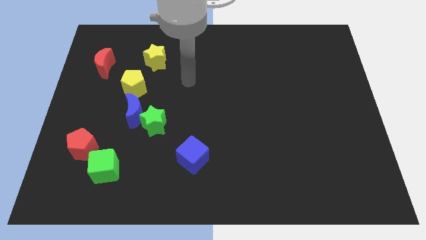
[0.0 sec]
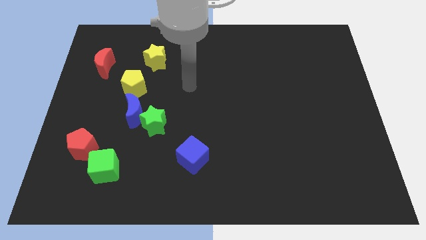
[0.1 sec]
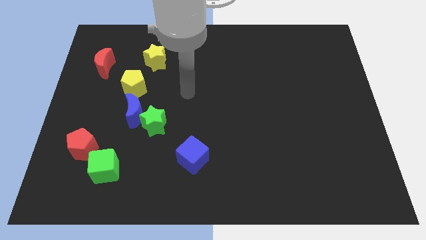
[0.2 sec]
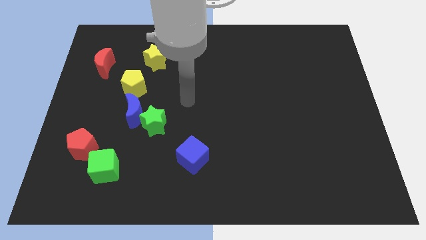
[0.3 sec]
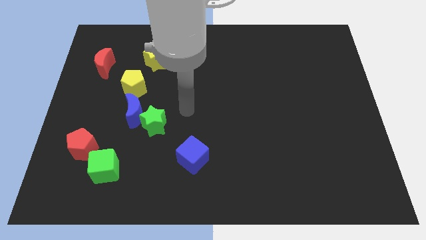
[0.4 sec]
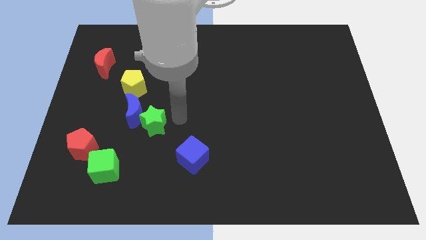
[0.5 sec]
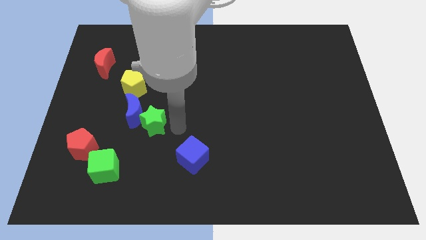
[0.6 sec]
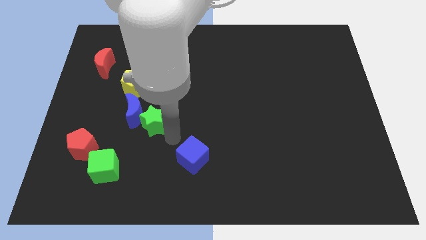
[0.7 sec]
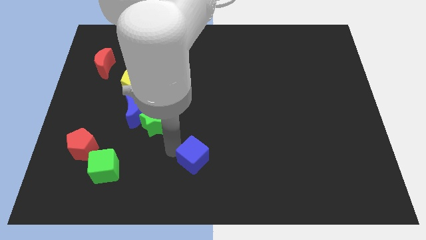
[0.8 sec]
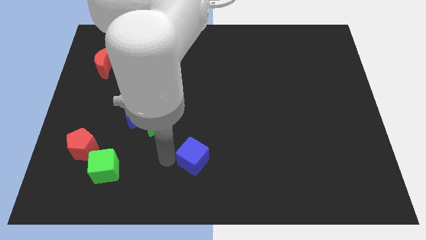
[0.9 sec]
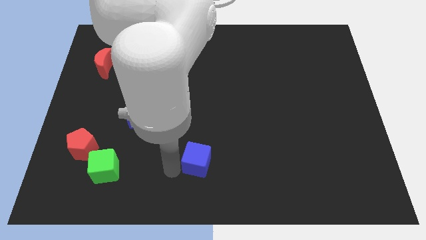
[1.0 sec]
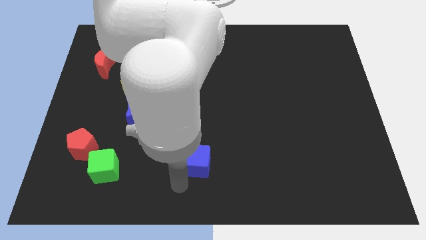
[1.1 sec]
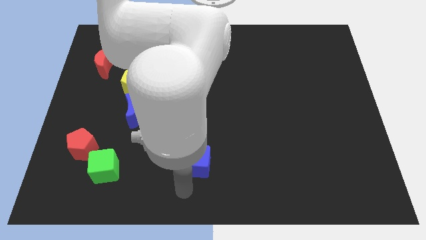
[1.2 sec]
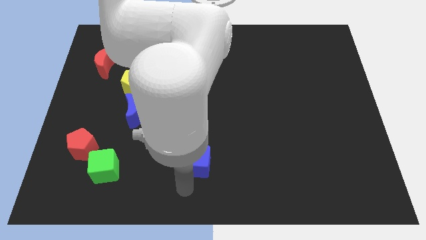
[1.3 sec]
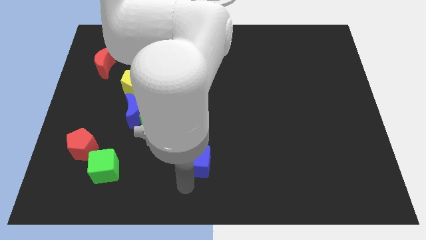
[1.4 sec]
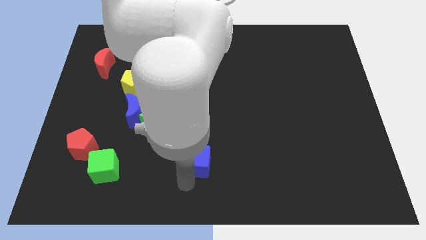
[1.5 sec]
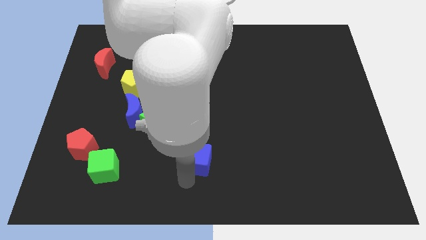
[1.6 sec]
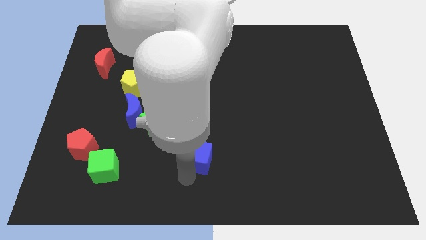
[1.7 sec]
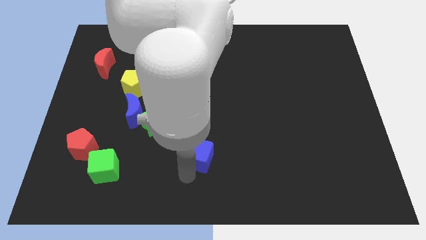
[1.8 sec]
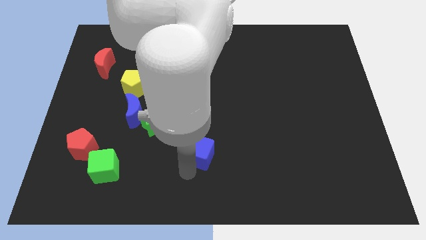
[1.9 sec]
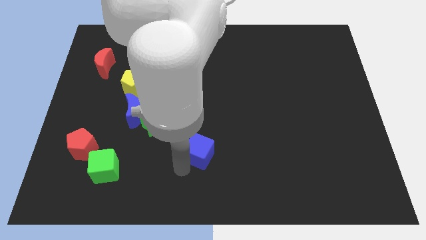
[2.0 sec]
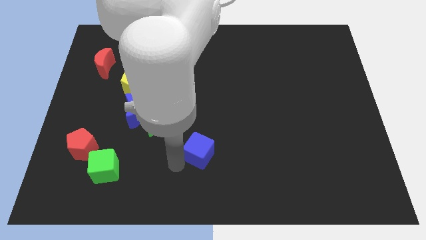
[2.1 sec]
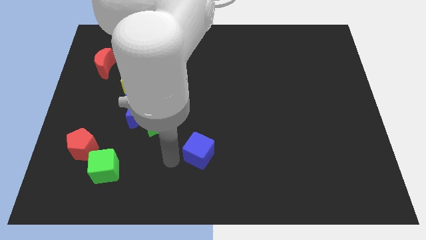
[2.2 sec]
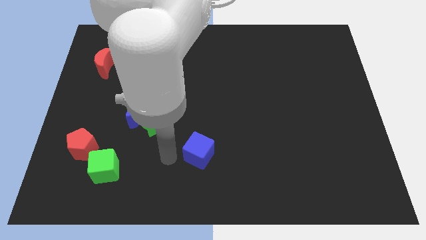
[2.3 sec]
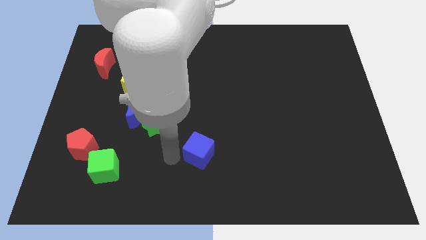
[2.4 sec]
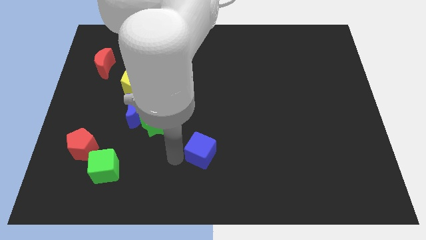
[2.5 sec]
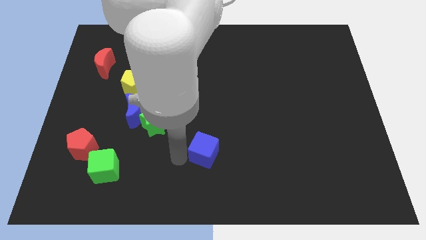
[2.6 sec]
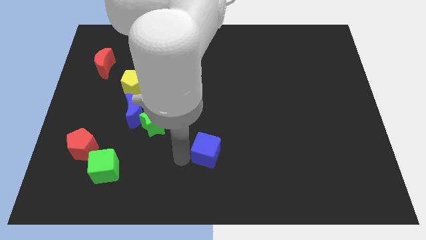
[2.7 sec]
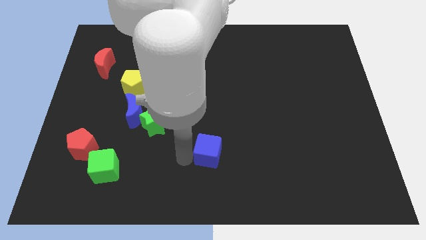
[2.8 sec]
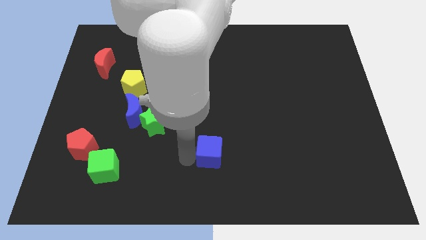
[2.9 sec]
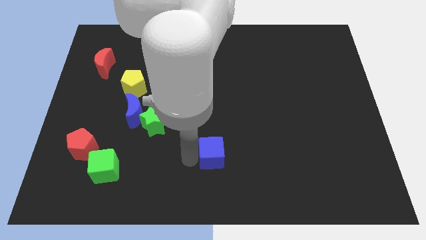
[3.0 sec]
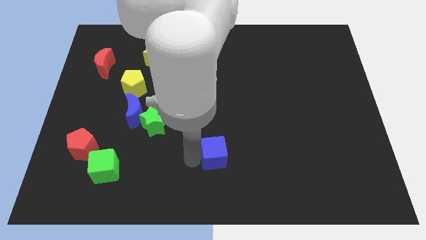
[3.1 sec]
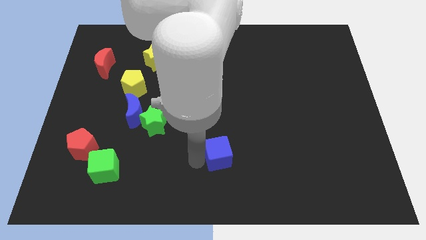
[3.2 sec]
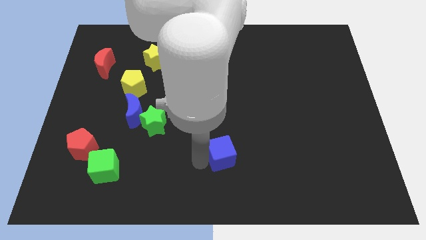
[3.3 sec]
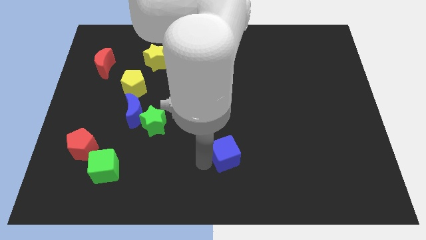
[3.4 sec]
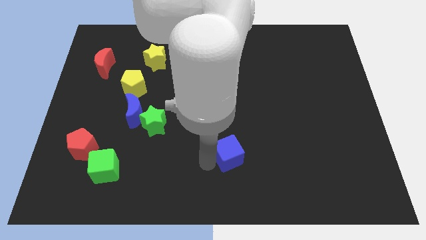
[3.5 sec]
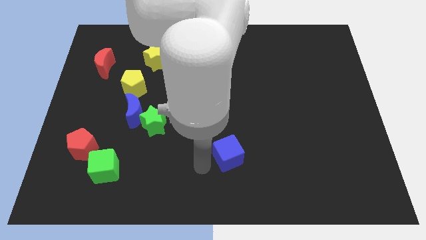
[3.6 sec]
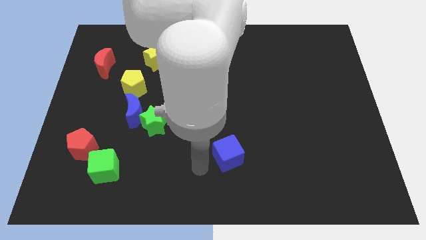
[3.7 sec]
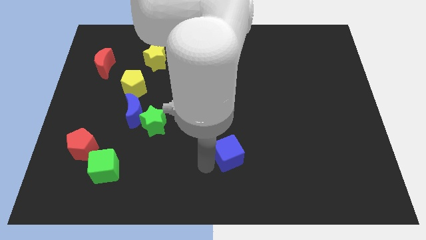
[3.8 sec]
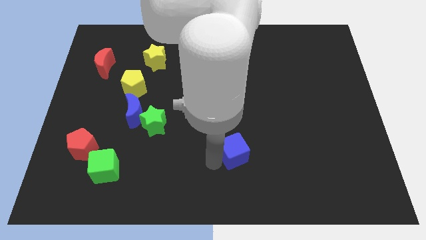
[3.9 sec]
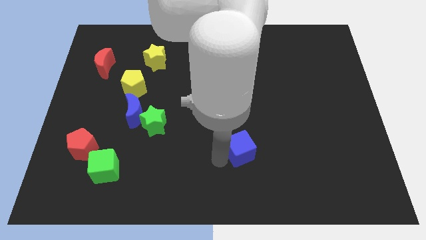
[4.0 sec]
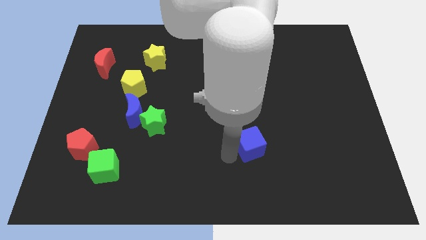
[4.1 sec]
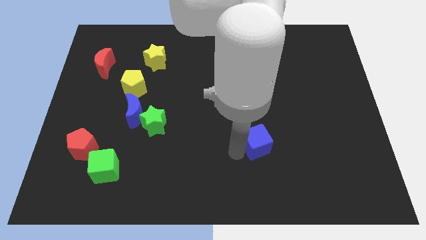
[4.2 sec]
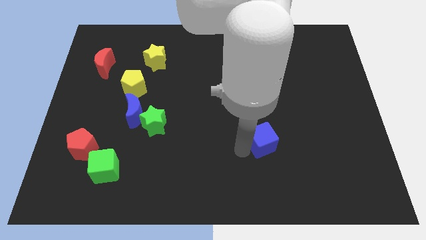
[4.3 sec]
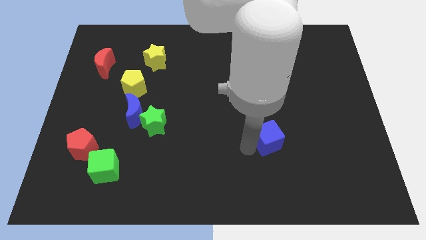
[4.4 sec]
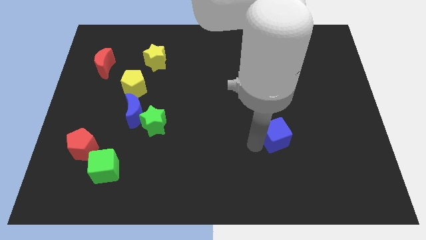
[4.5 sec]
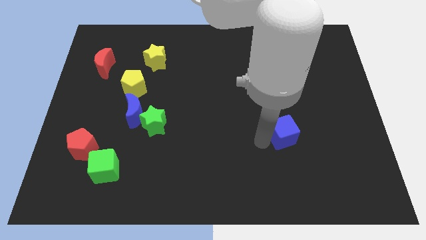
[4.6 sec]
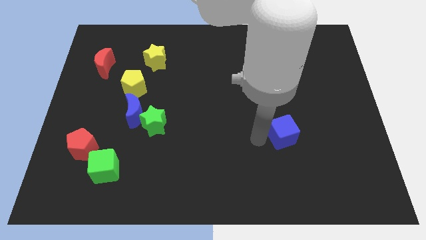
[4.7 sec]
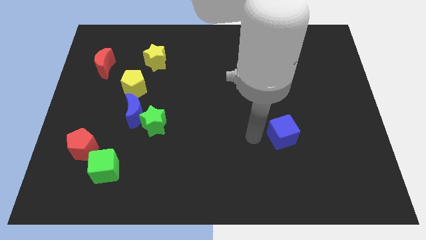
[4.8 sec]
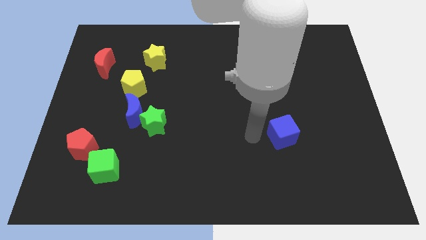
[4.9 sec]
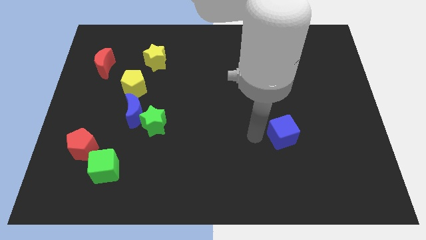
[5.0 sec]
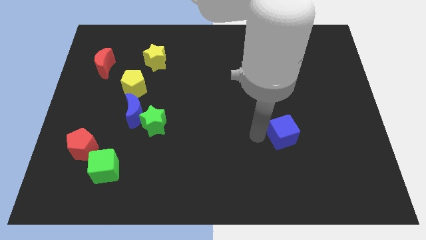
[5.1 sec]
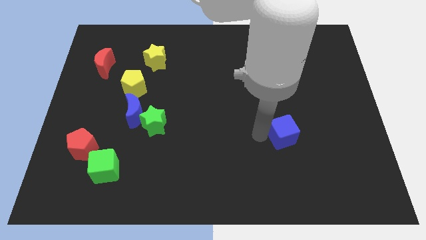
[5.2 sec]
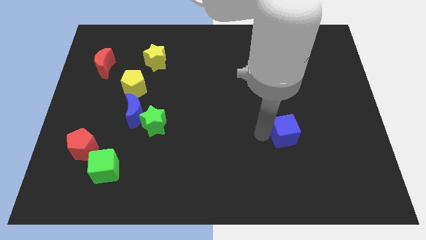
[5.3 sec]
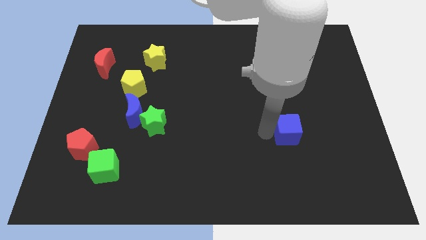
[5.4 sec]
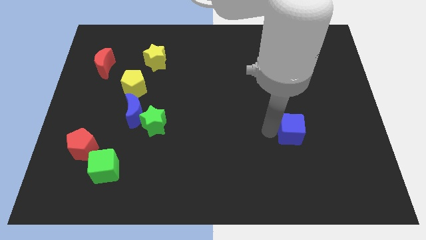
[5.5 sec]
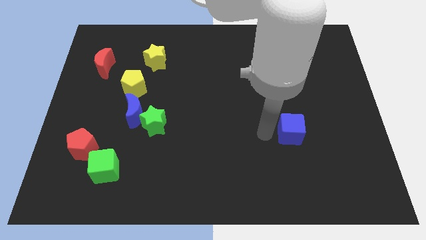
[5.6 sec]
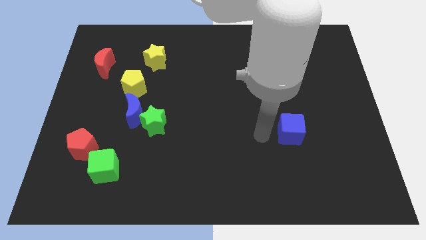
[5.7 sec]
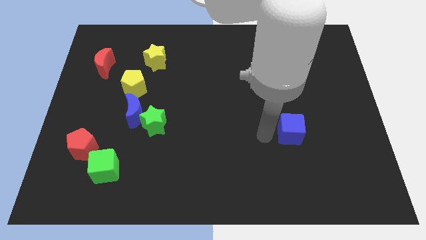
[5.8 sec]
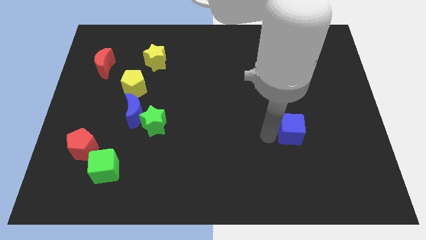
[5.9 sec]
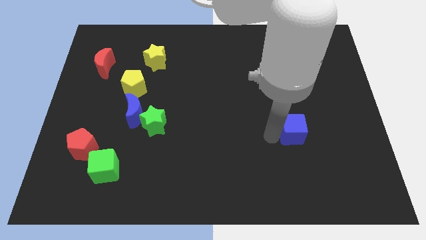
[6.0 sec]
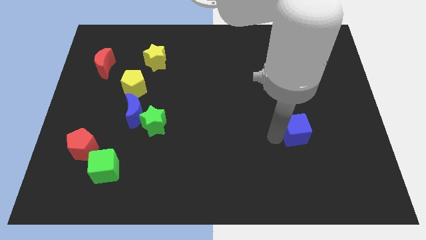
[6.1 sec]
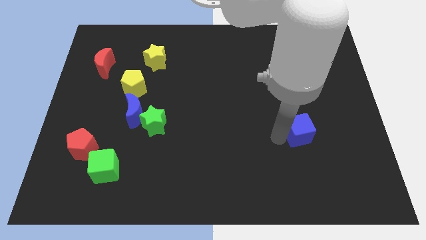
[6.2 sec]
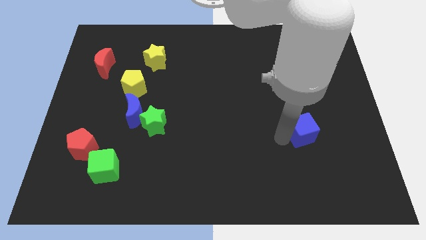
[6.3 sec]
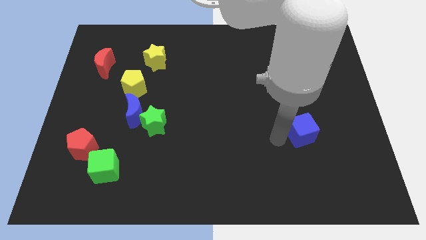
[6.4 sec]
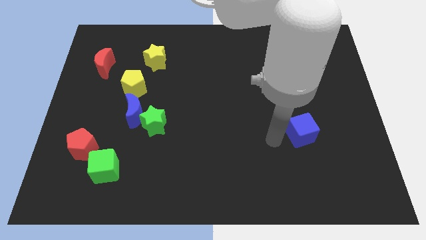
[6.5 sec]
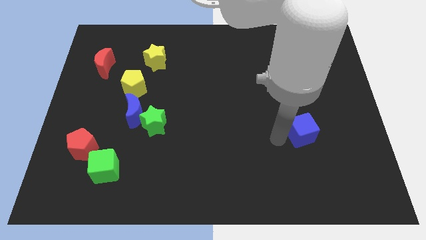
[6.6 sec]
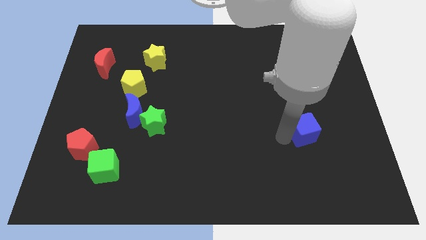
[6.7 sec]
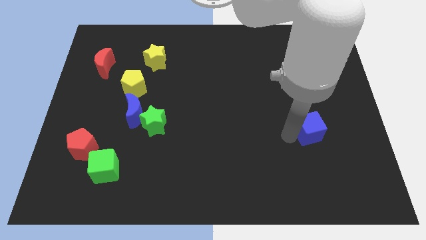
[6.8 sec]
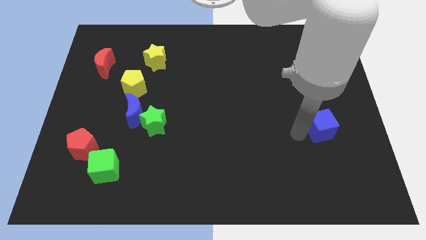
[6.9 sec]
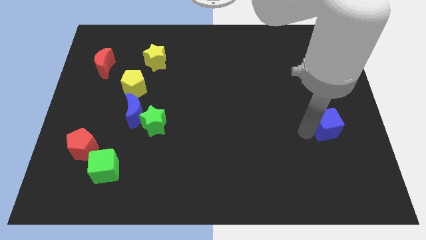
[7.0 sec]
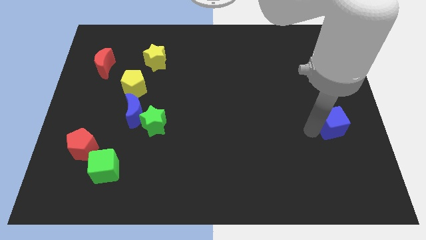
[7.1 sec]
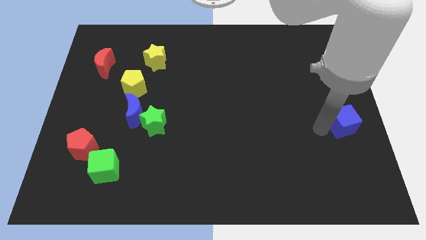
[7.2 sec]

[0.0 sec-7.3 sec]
put the blue cube to the center right
